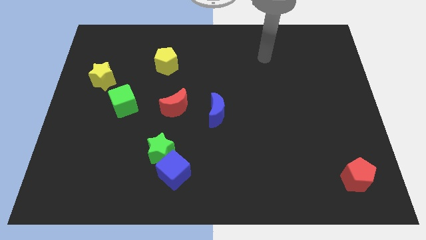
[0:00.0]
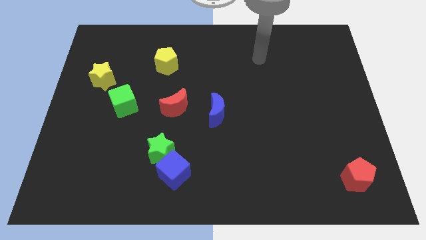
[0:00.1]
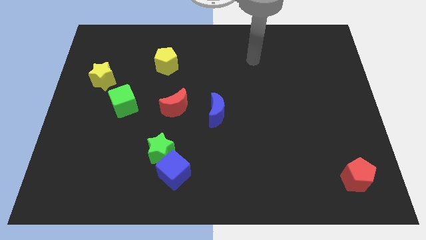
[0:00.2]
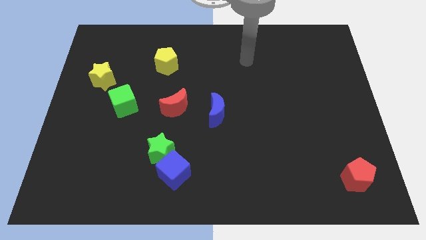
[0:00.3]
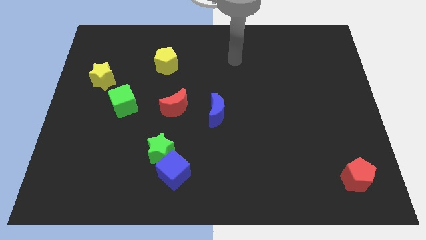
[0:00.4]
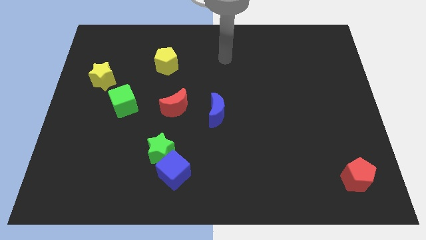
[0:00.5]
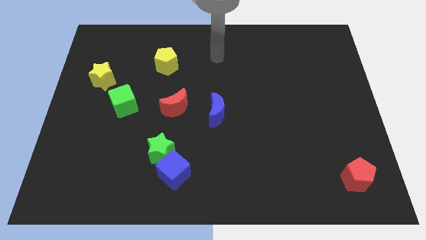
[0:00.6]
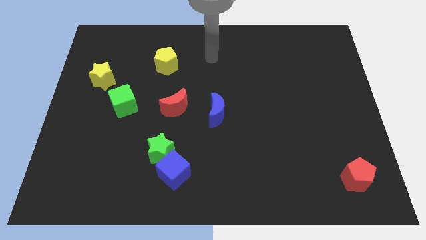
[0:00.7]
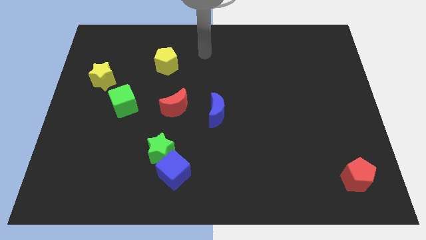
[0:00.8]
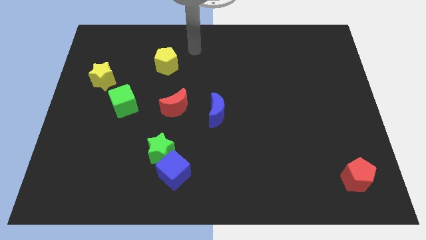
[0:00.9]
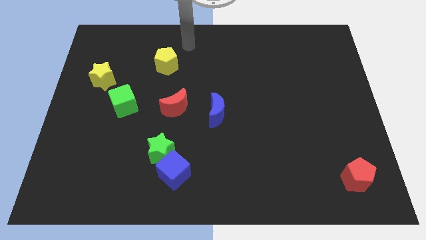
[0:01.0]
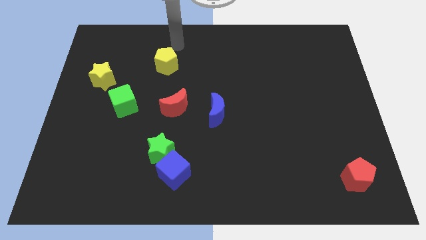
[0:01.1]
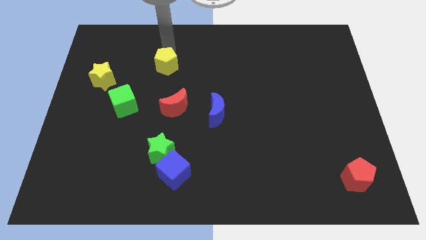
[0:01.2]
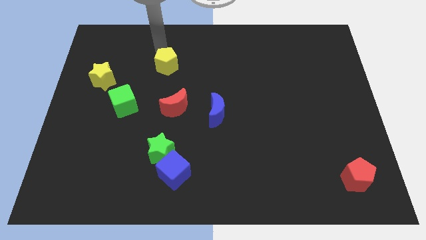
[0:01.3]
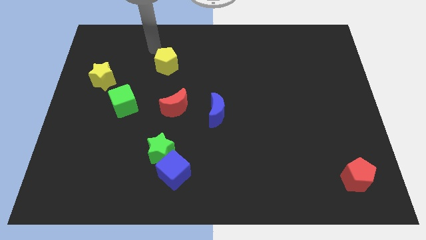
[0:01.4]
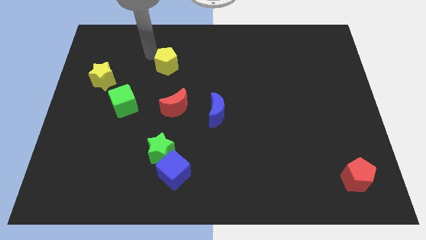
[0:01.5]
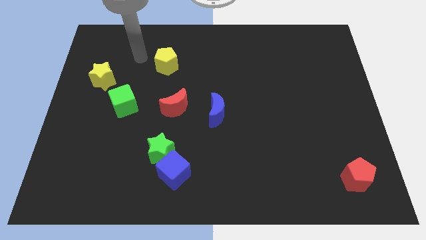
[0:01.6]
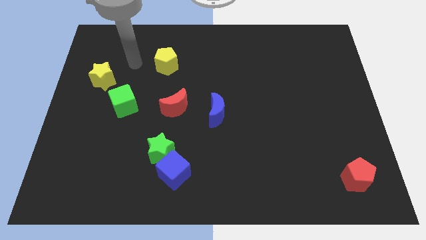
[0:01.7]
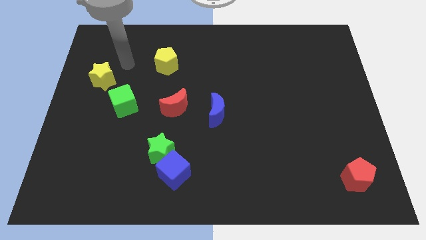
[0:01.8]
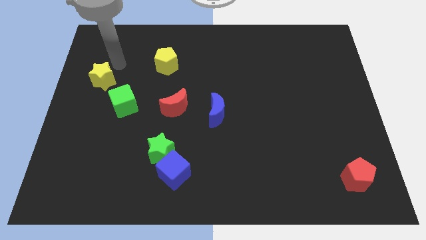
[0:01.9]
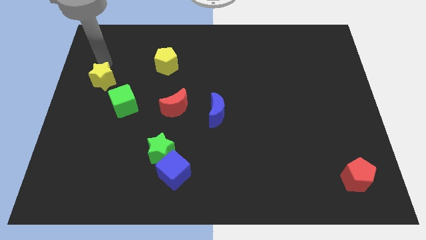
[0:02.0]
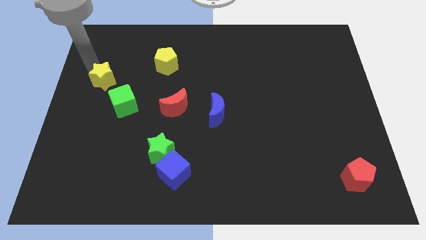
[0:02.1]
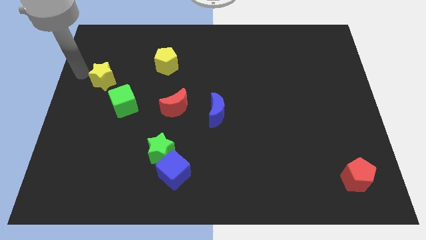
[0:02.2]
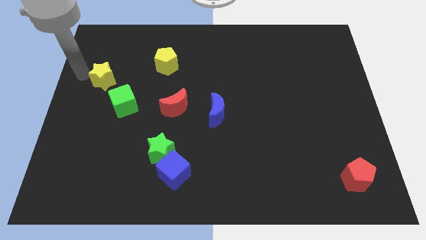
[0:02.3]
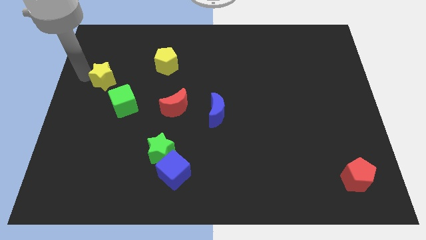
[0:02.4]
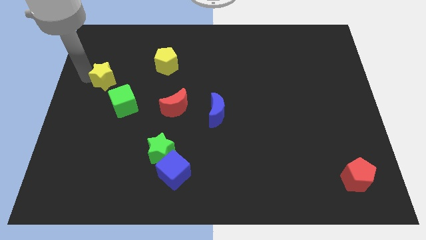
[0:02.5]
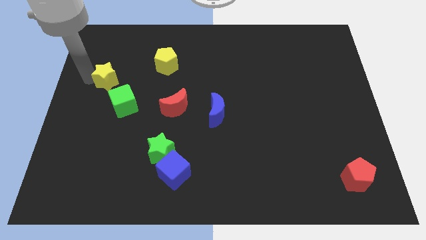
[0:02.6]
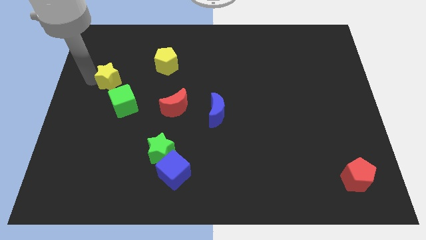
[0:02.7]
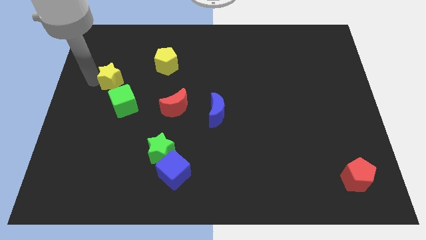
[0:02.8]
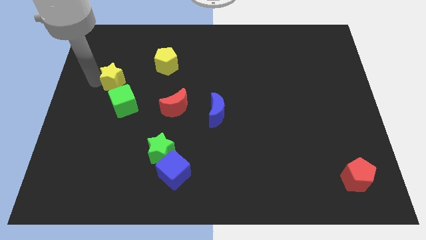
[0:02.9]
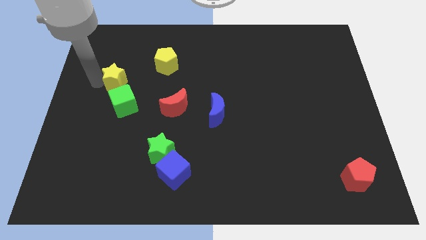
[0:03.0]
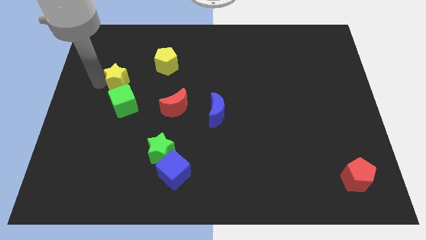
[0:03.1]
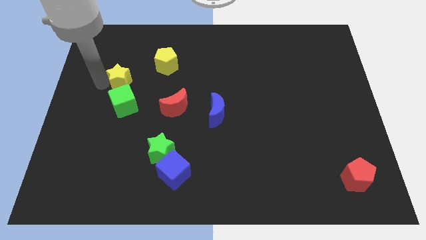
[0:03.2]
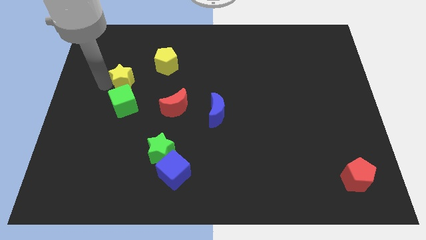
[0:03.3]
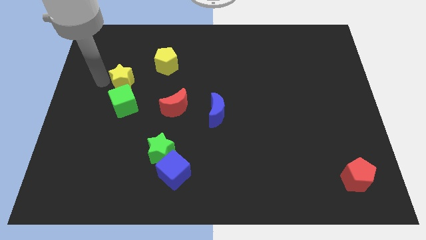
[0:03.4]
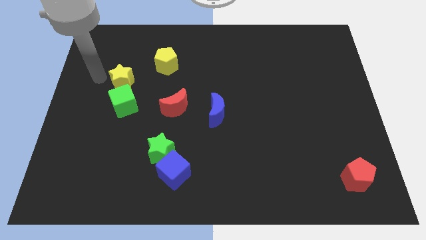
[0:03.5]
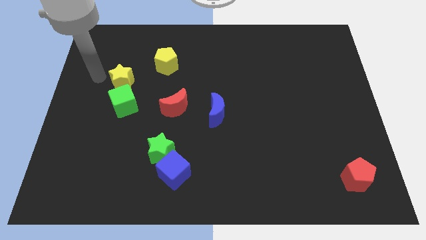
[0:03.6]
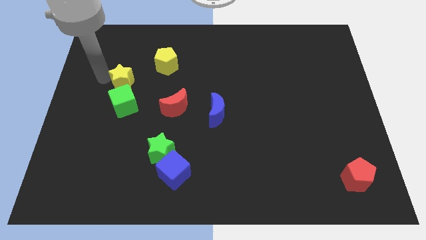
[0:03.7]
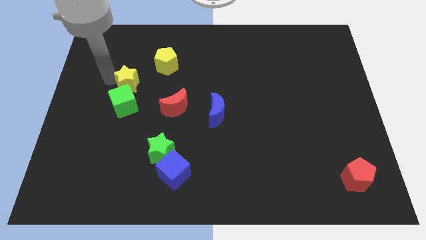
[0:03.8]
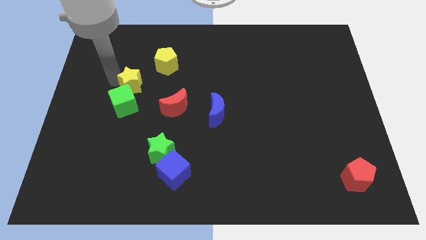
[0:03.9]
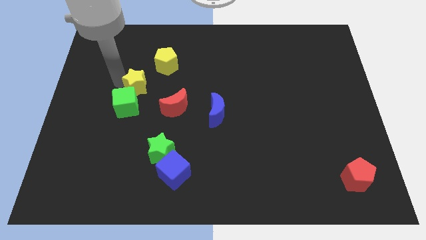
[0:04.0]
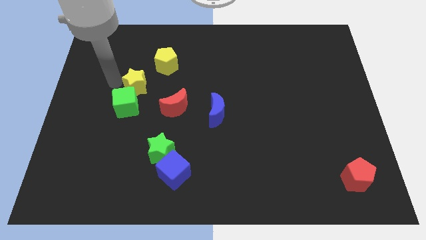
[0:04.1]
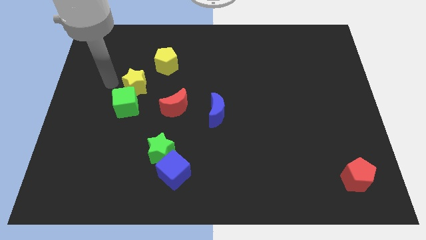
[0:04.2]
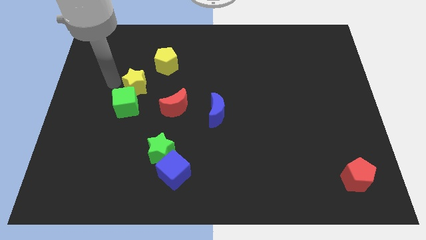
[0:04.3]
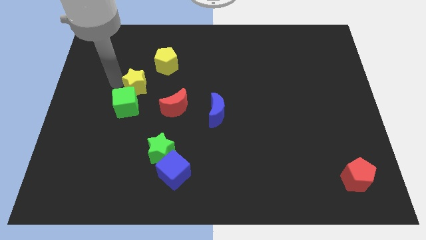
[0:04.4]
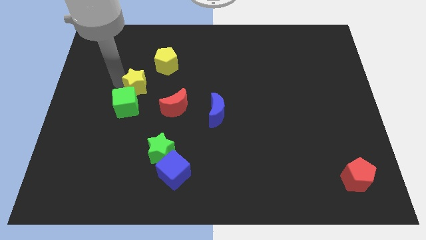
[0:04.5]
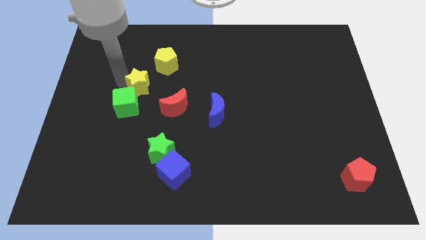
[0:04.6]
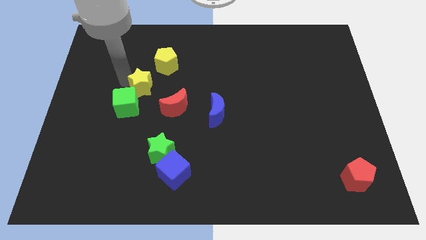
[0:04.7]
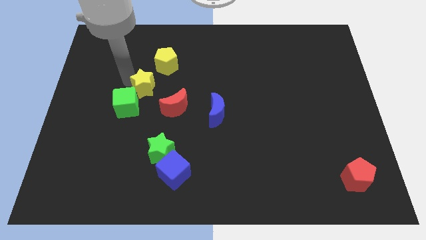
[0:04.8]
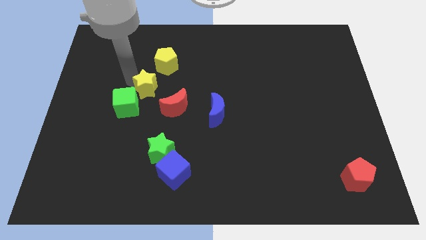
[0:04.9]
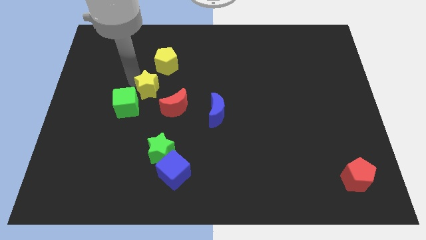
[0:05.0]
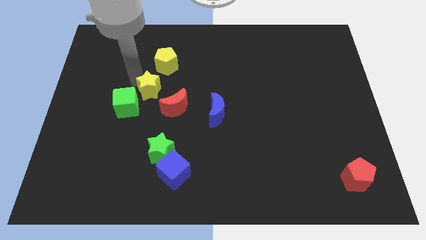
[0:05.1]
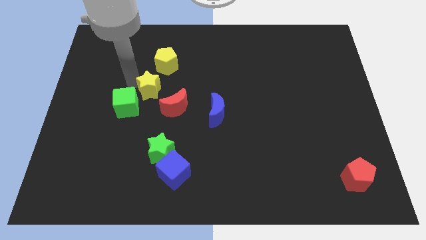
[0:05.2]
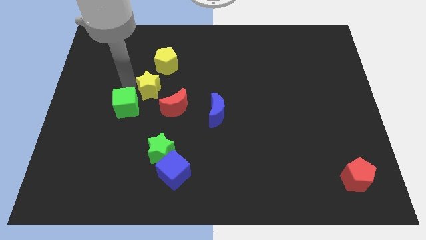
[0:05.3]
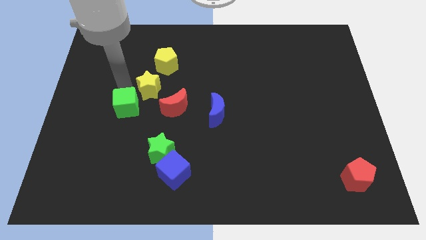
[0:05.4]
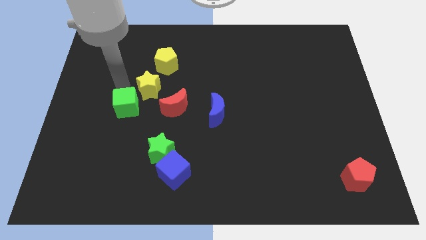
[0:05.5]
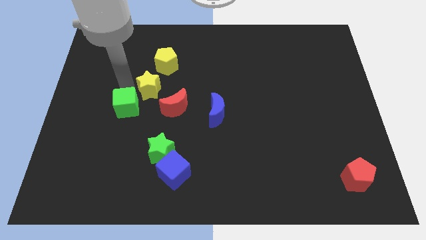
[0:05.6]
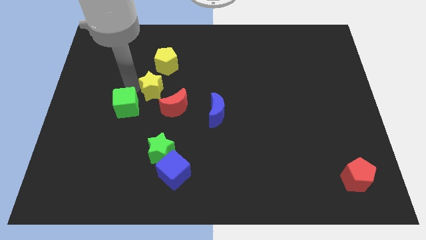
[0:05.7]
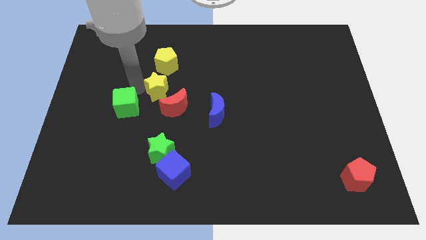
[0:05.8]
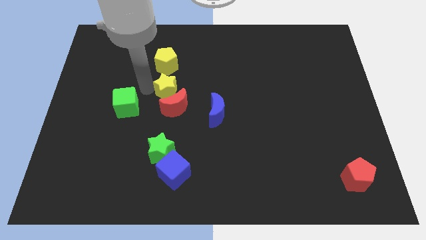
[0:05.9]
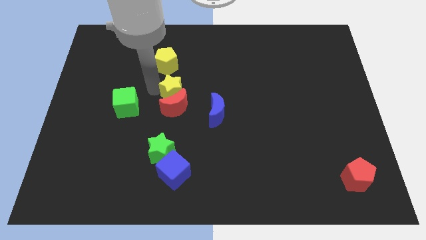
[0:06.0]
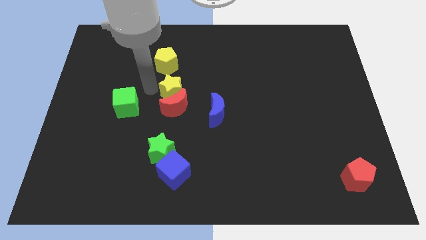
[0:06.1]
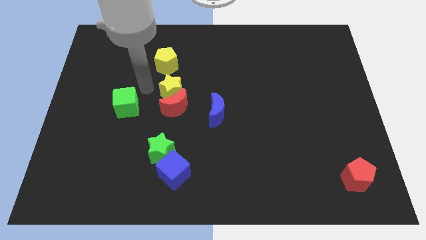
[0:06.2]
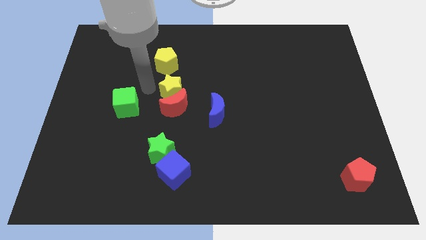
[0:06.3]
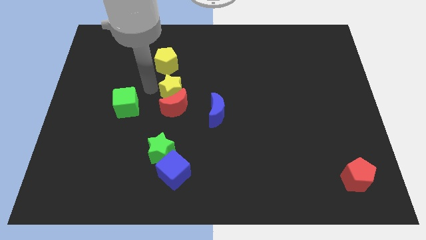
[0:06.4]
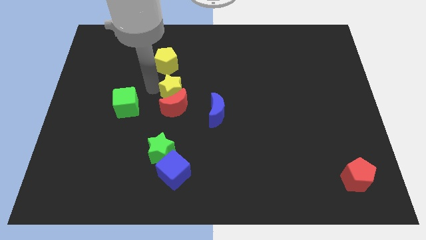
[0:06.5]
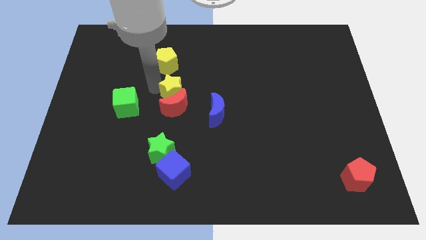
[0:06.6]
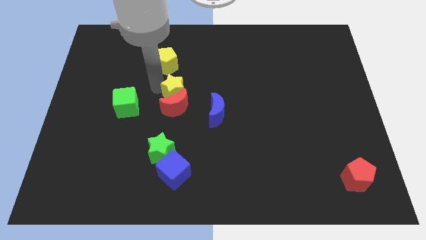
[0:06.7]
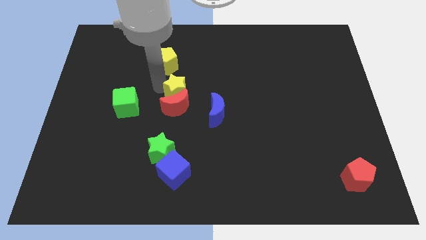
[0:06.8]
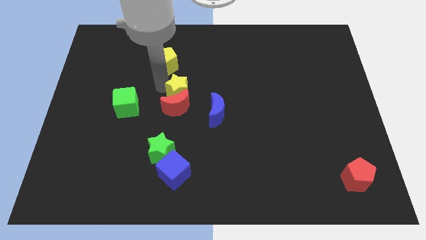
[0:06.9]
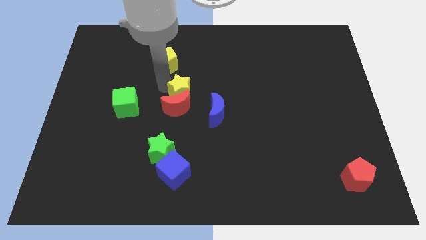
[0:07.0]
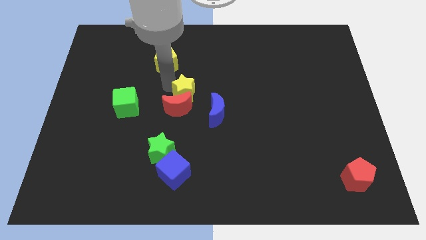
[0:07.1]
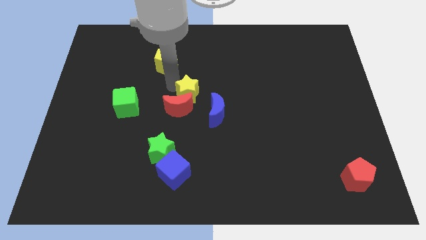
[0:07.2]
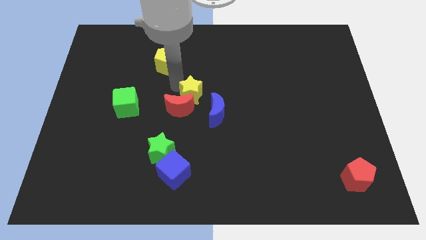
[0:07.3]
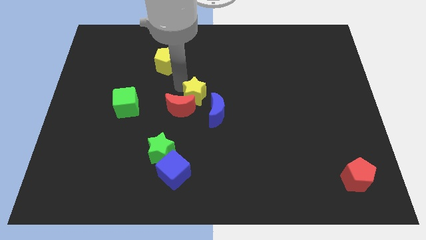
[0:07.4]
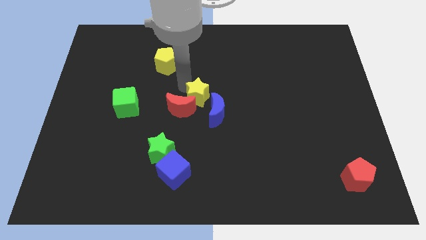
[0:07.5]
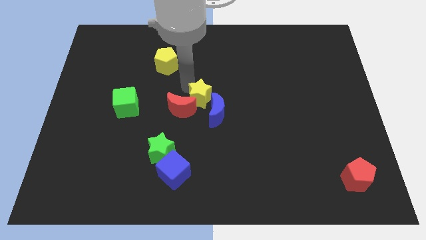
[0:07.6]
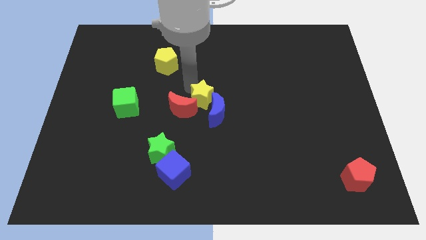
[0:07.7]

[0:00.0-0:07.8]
slide the yellow star next to the blue moon
